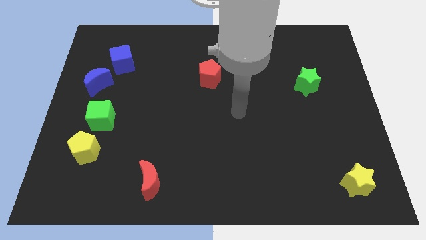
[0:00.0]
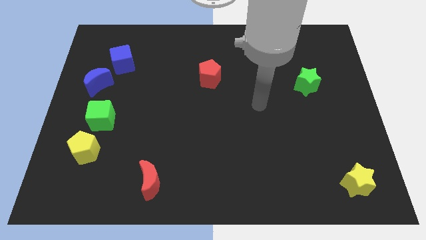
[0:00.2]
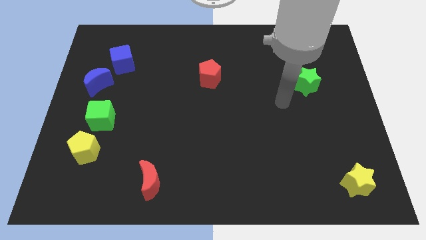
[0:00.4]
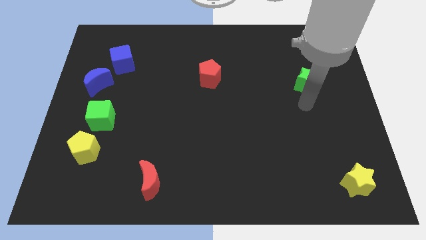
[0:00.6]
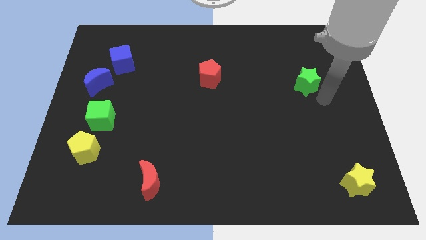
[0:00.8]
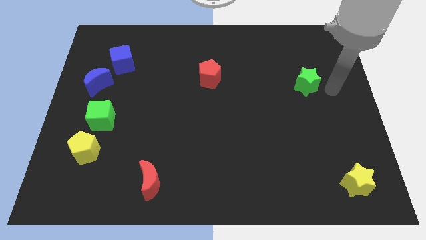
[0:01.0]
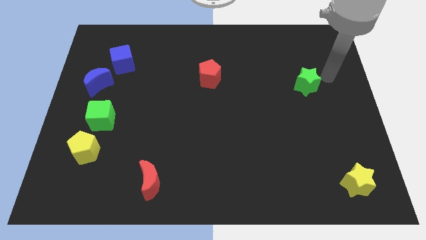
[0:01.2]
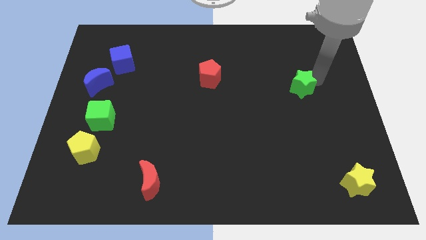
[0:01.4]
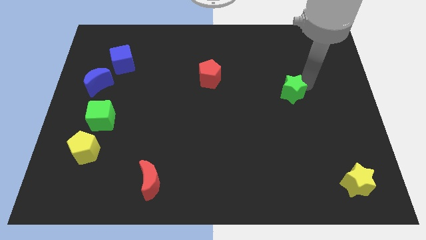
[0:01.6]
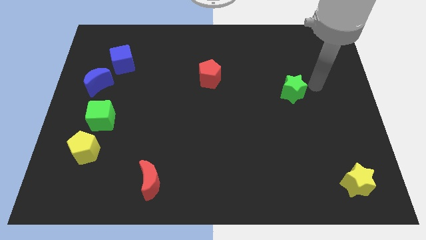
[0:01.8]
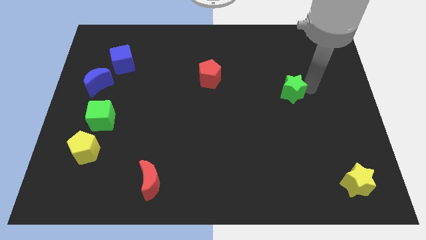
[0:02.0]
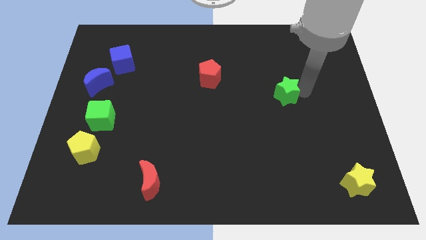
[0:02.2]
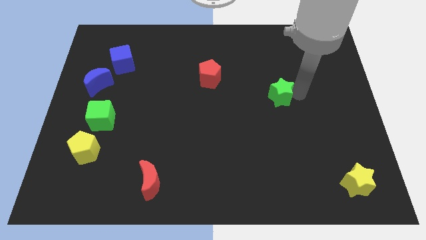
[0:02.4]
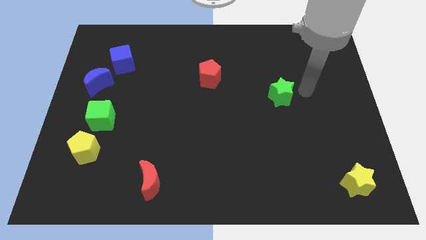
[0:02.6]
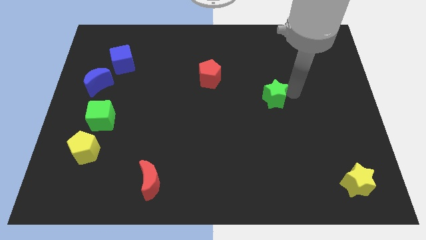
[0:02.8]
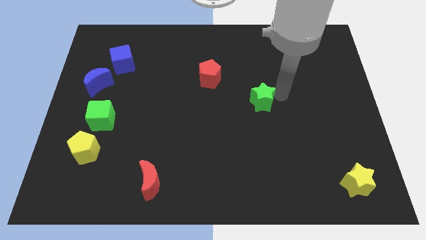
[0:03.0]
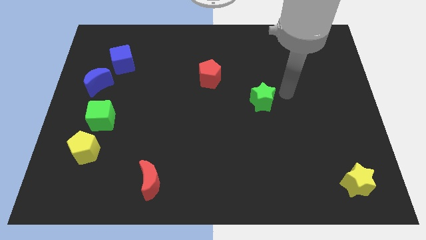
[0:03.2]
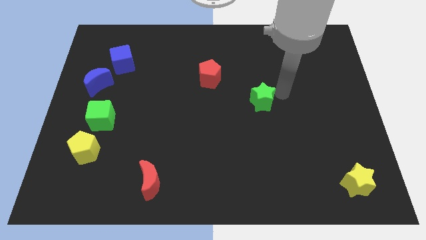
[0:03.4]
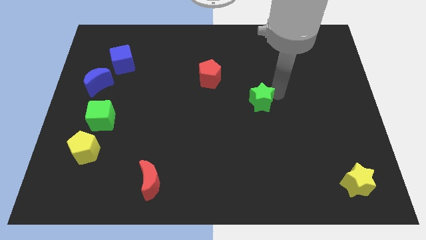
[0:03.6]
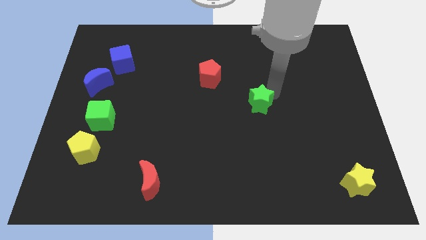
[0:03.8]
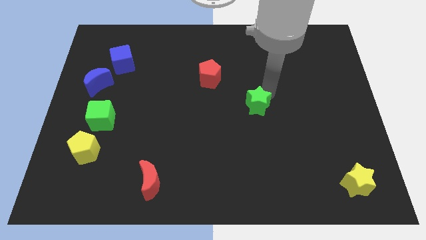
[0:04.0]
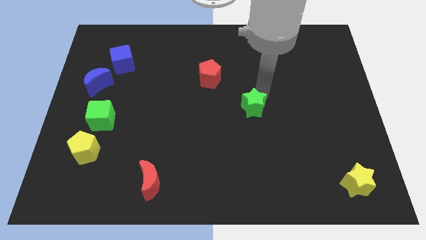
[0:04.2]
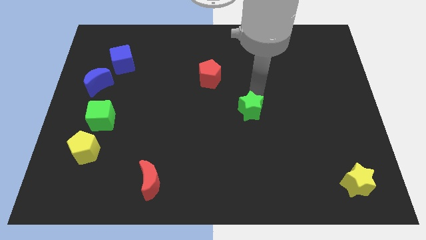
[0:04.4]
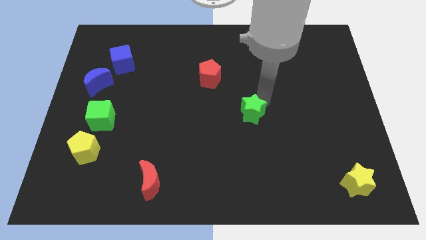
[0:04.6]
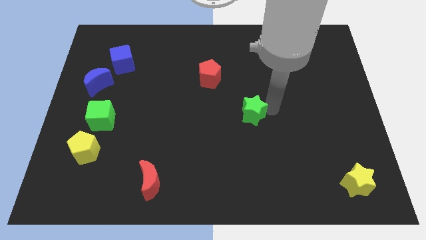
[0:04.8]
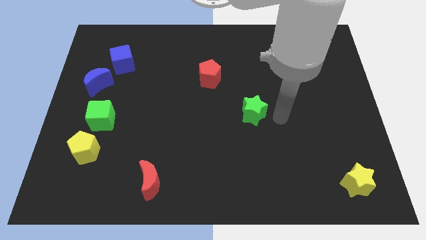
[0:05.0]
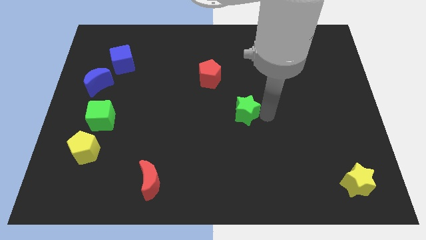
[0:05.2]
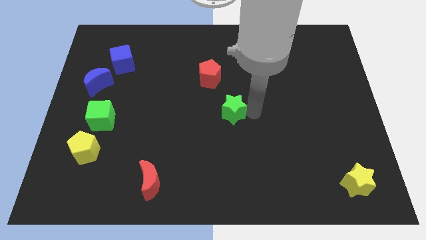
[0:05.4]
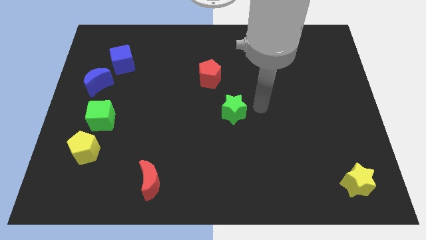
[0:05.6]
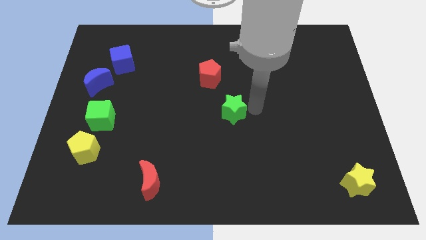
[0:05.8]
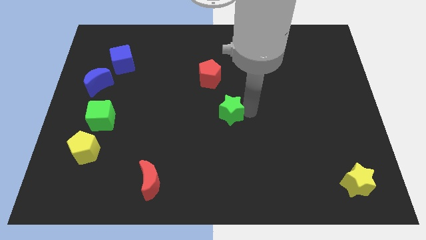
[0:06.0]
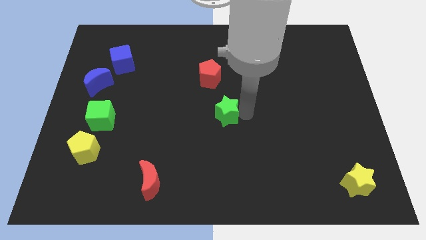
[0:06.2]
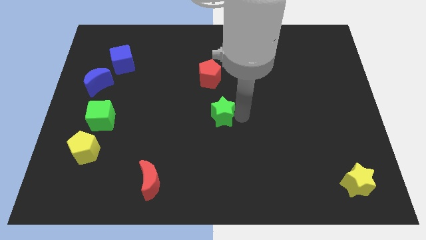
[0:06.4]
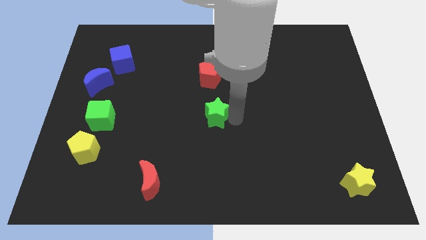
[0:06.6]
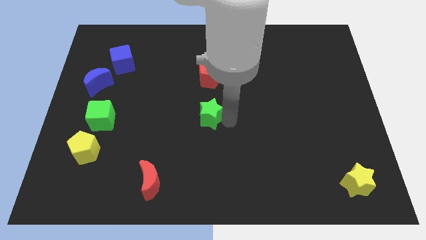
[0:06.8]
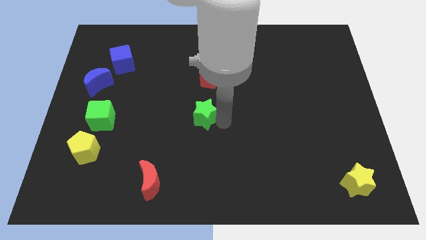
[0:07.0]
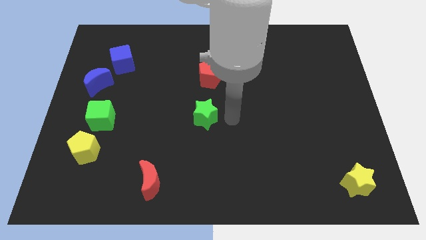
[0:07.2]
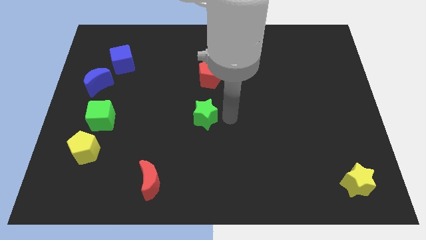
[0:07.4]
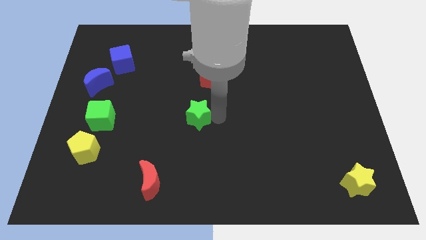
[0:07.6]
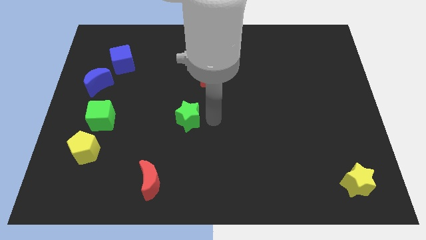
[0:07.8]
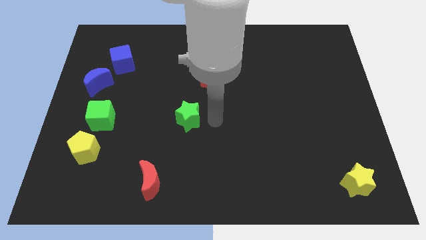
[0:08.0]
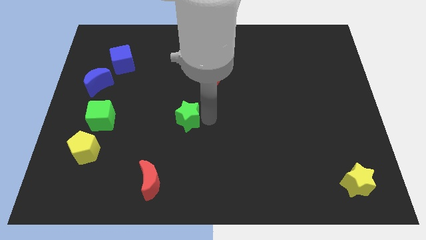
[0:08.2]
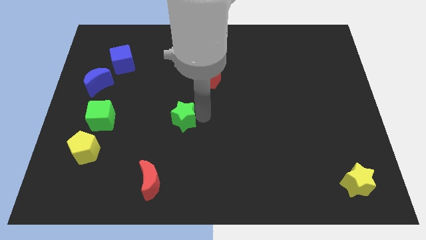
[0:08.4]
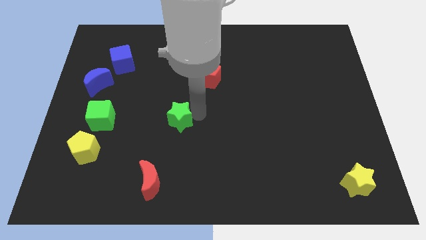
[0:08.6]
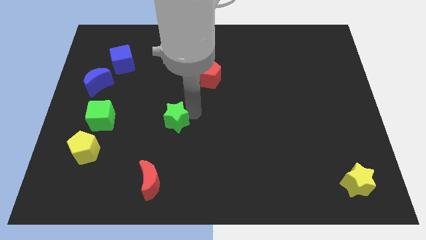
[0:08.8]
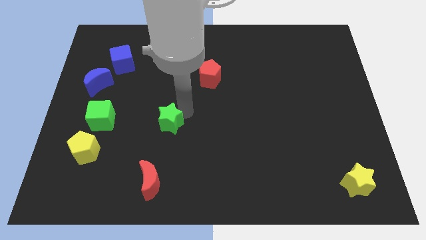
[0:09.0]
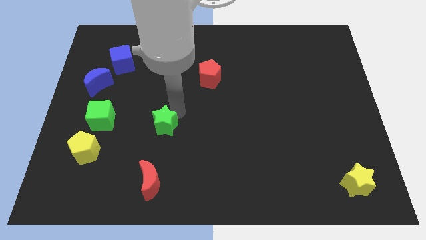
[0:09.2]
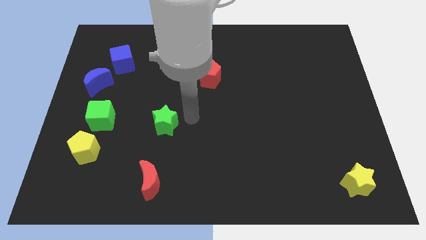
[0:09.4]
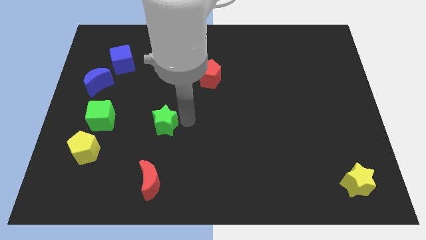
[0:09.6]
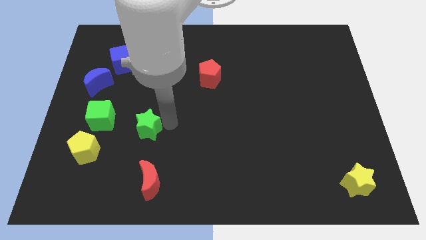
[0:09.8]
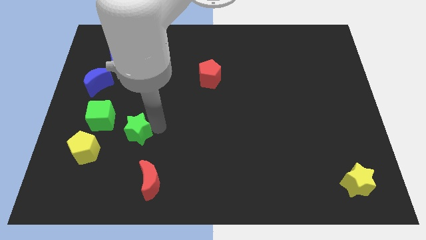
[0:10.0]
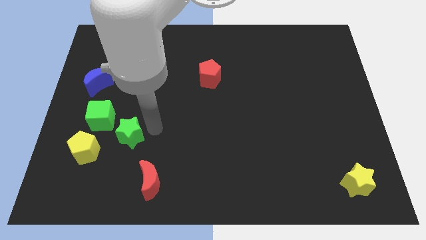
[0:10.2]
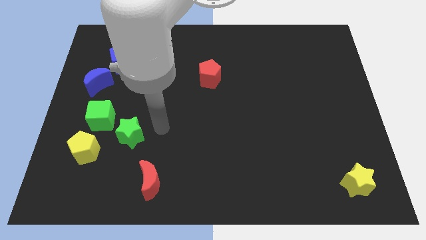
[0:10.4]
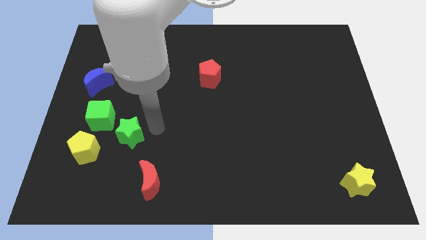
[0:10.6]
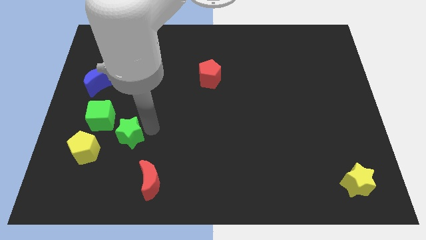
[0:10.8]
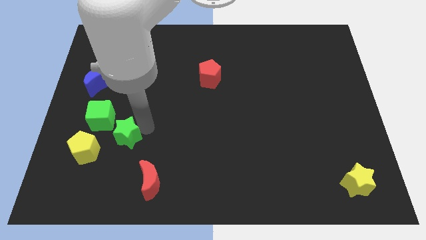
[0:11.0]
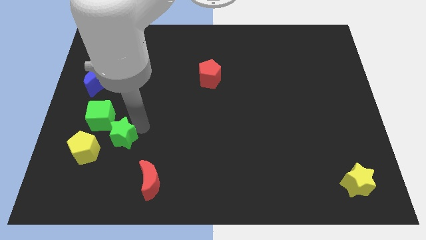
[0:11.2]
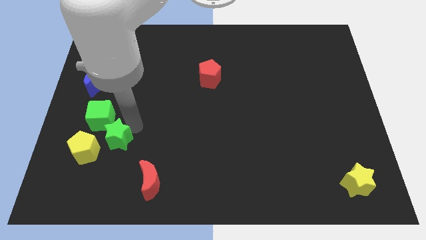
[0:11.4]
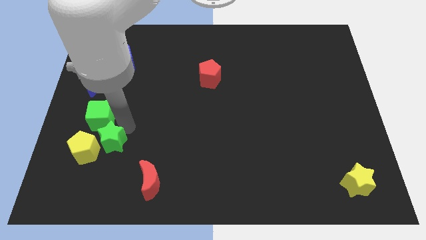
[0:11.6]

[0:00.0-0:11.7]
slide the green star next to the yellow pentagon

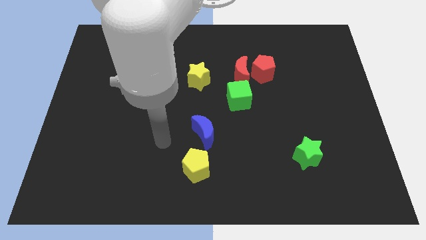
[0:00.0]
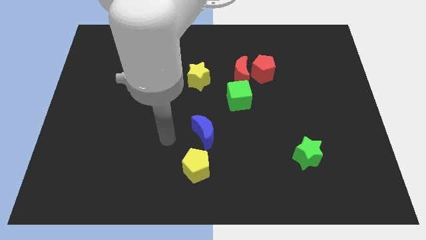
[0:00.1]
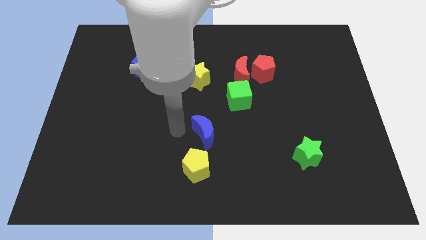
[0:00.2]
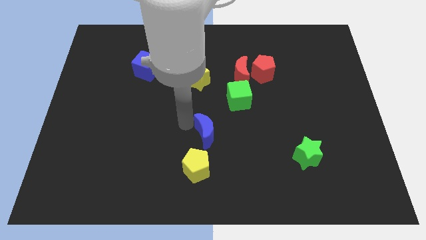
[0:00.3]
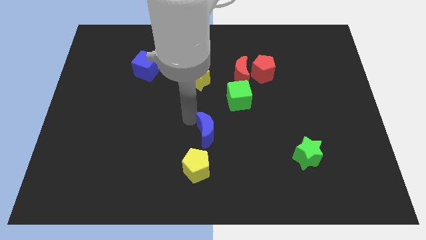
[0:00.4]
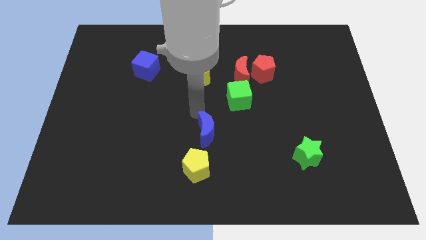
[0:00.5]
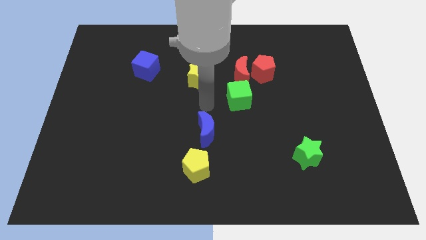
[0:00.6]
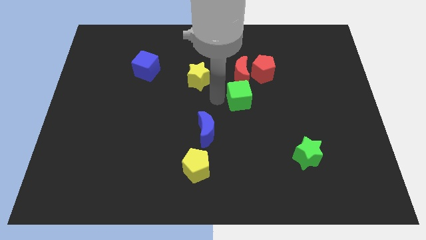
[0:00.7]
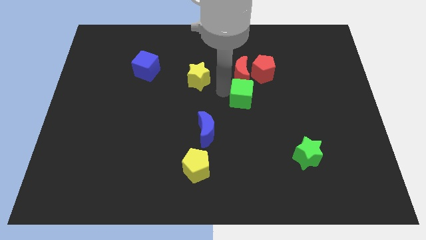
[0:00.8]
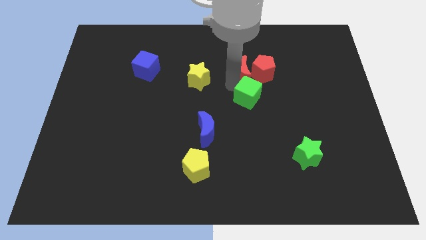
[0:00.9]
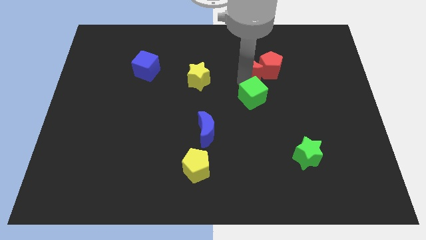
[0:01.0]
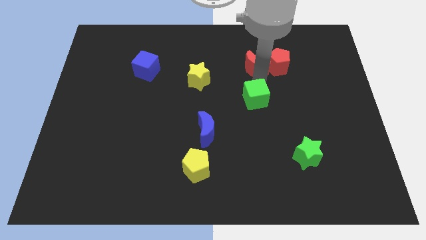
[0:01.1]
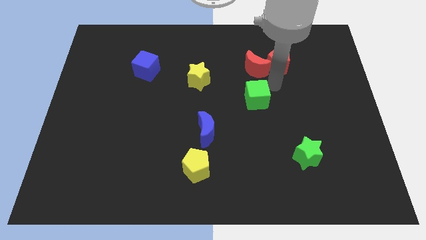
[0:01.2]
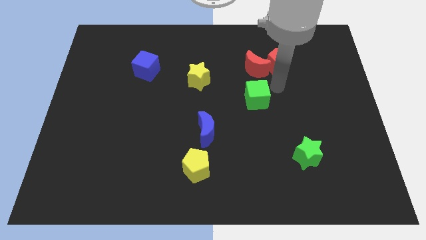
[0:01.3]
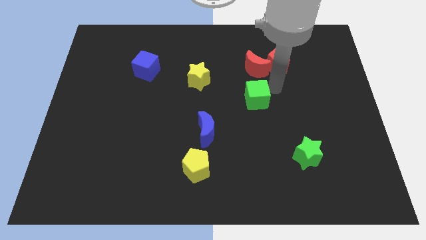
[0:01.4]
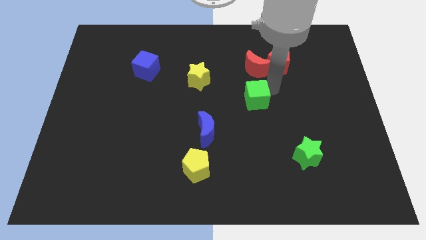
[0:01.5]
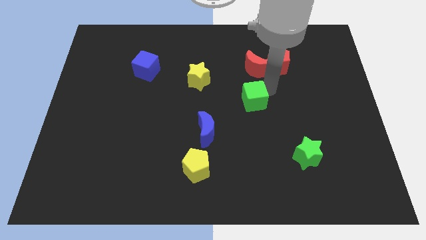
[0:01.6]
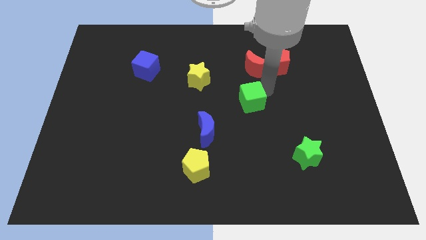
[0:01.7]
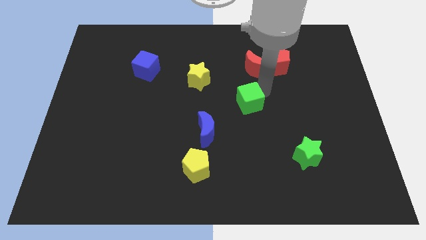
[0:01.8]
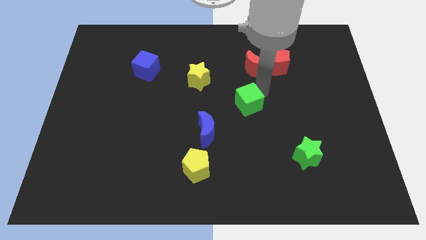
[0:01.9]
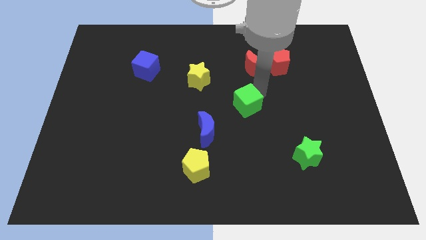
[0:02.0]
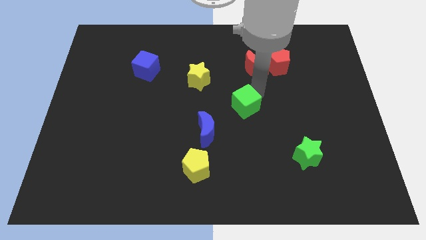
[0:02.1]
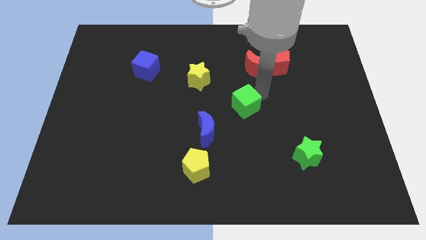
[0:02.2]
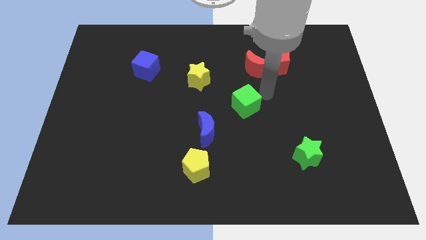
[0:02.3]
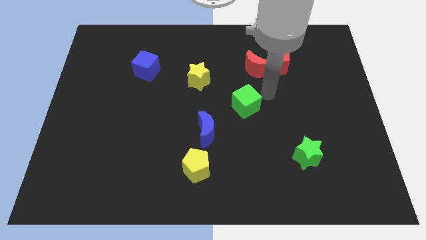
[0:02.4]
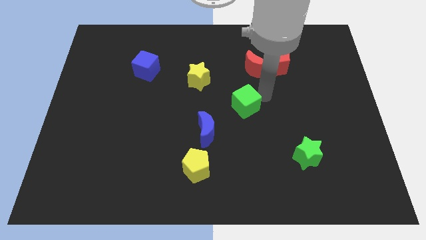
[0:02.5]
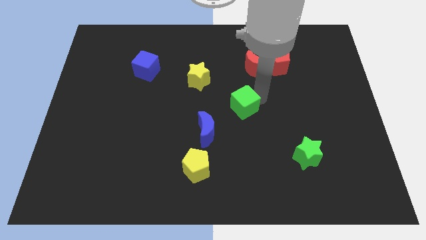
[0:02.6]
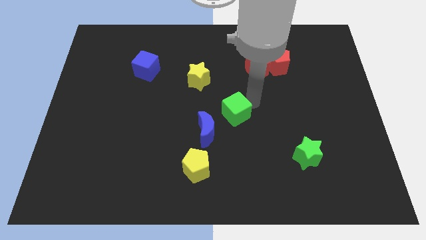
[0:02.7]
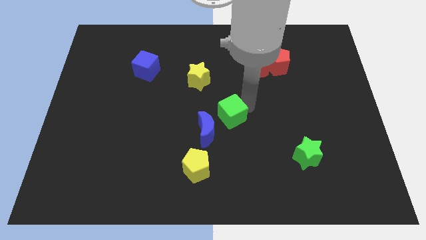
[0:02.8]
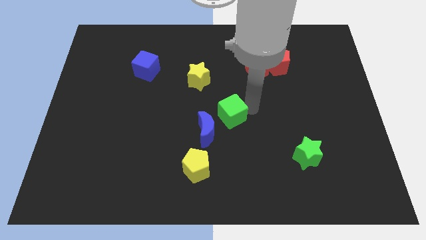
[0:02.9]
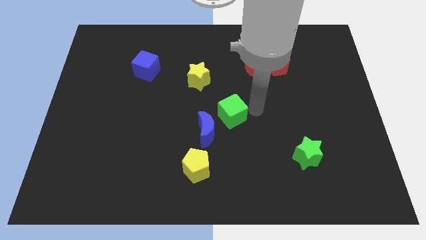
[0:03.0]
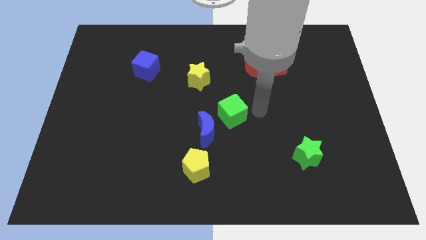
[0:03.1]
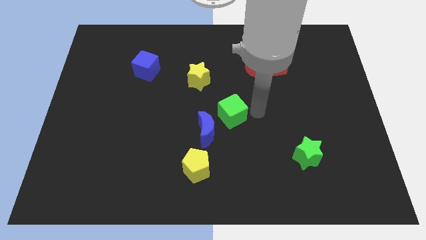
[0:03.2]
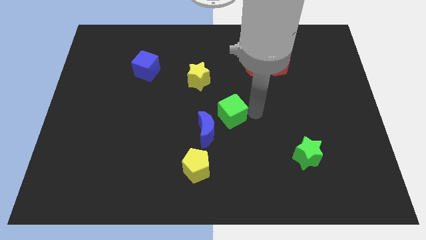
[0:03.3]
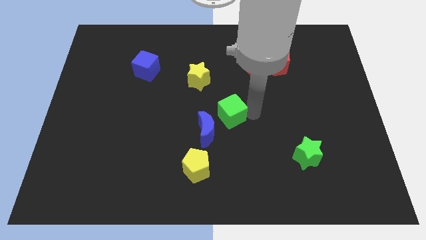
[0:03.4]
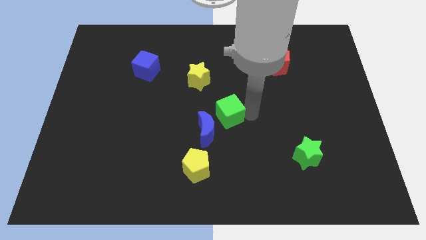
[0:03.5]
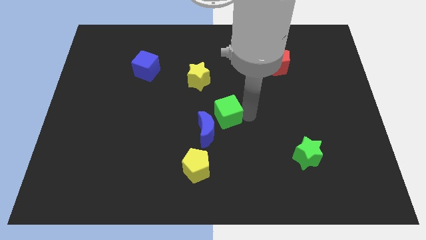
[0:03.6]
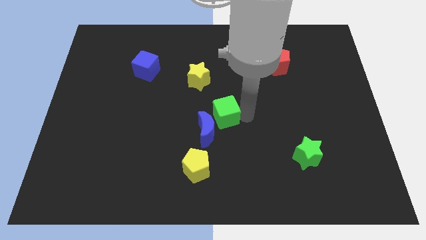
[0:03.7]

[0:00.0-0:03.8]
move the green cube towards the blue moon
